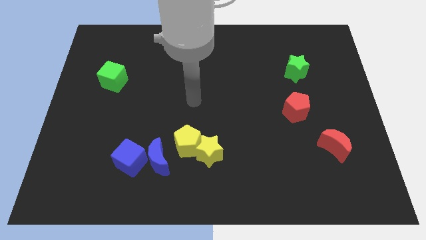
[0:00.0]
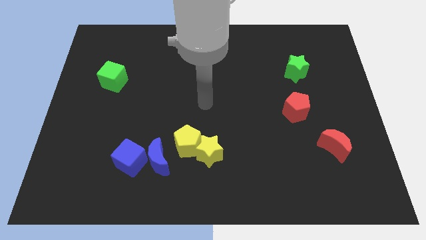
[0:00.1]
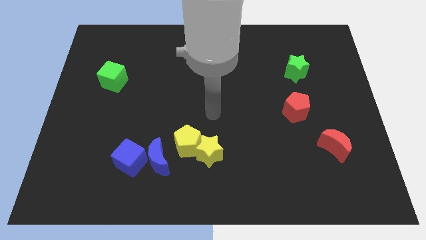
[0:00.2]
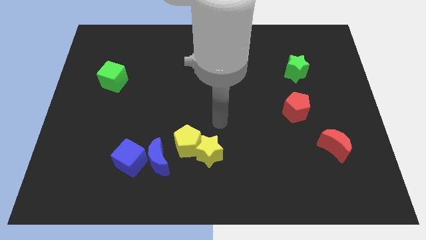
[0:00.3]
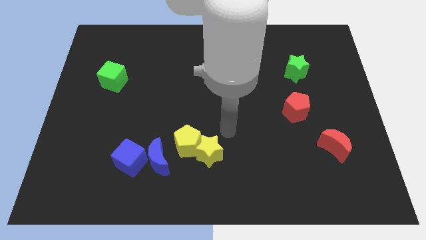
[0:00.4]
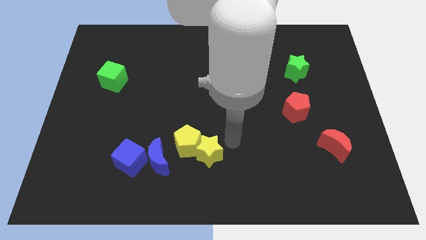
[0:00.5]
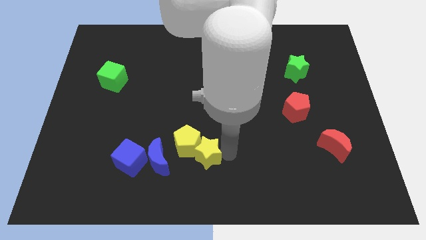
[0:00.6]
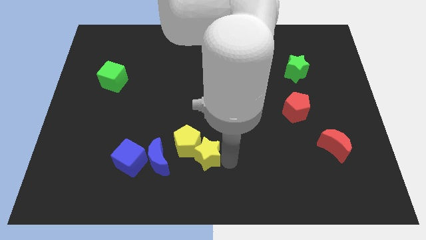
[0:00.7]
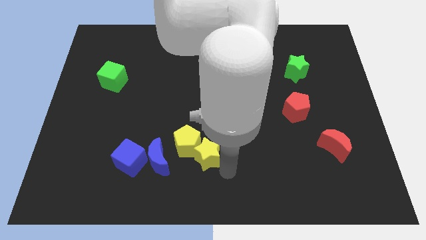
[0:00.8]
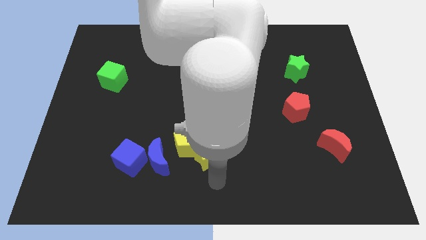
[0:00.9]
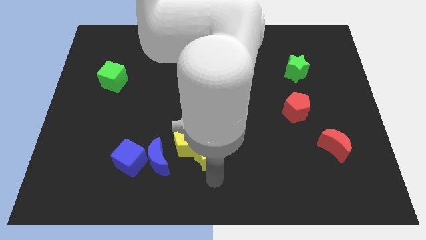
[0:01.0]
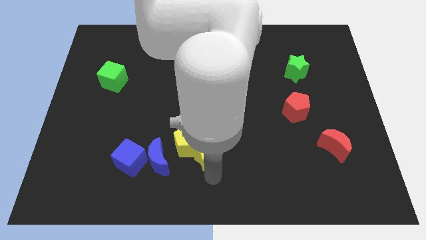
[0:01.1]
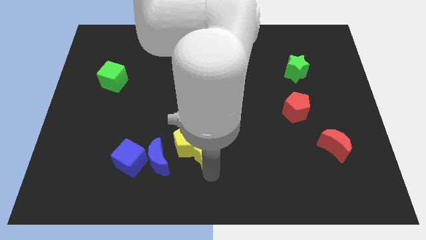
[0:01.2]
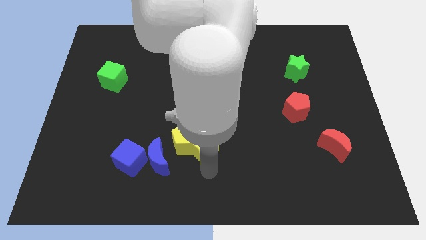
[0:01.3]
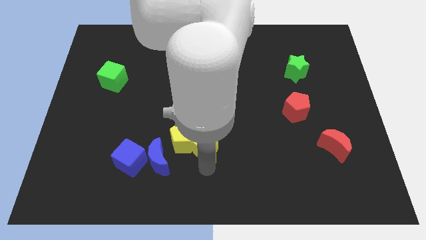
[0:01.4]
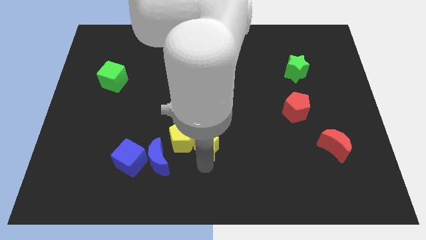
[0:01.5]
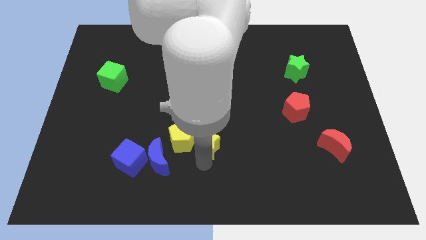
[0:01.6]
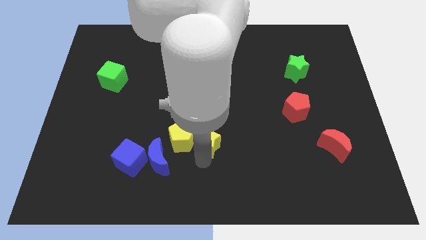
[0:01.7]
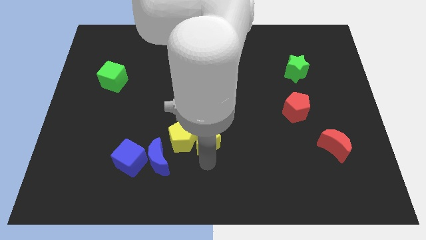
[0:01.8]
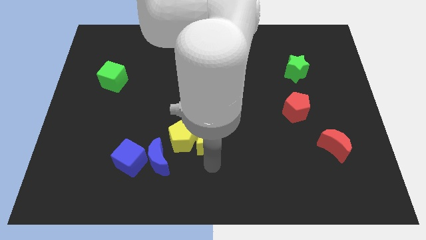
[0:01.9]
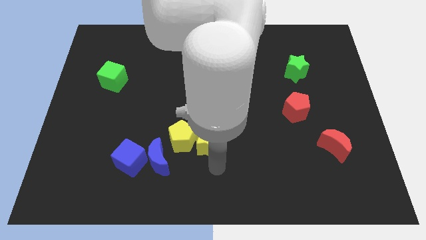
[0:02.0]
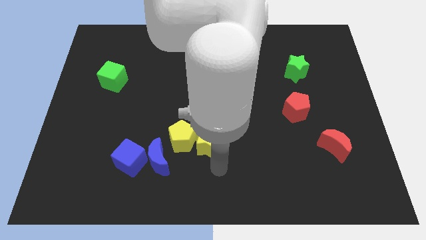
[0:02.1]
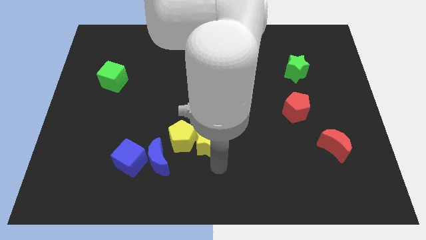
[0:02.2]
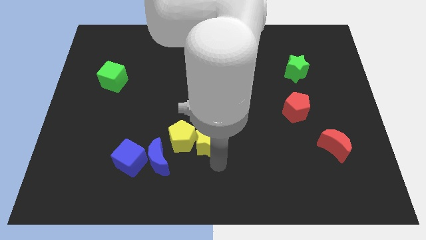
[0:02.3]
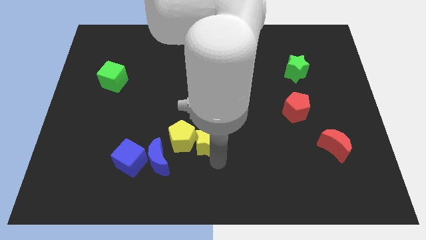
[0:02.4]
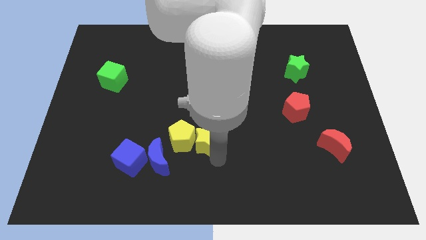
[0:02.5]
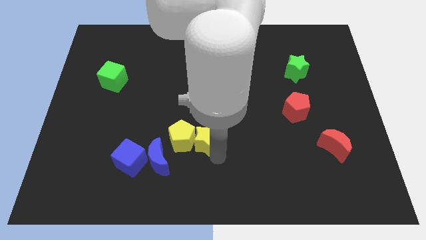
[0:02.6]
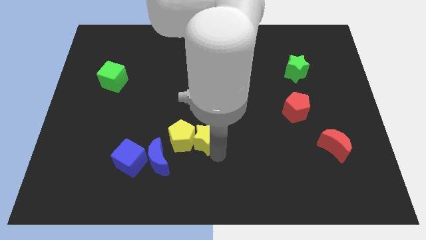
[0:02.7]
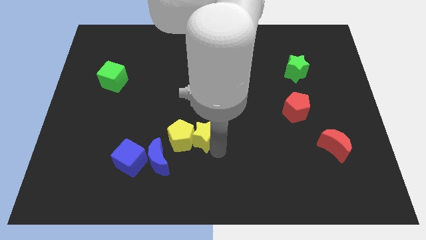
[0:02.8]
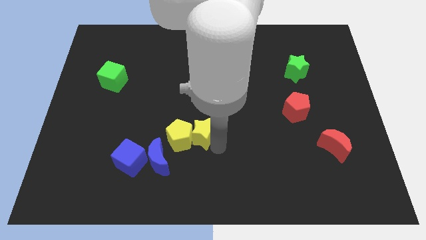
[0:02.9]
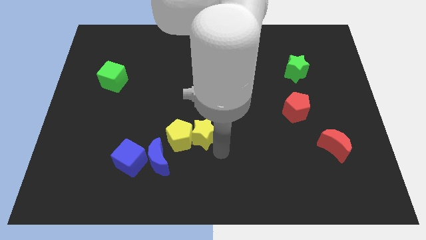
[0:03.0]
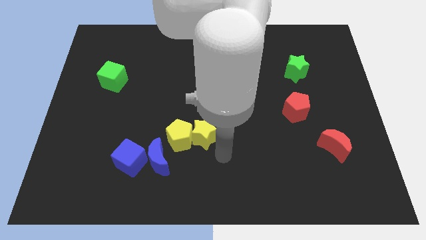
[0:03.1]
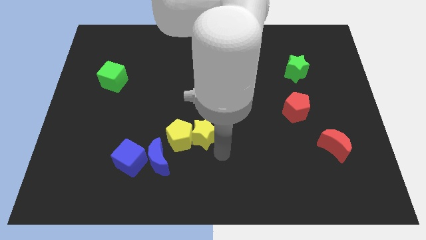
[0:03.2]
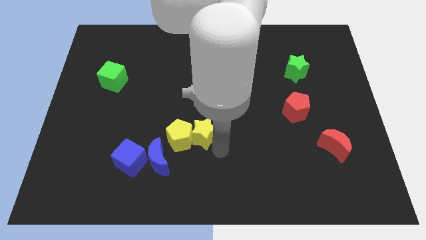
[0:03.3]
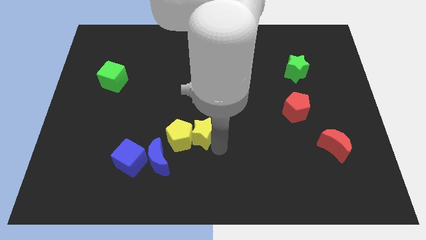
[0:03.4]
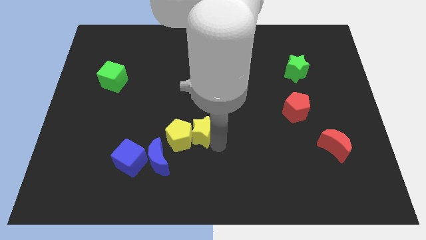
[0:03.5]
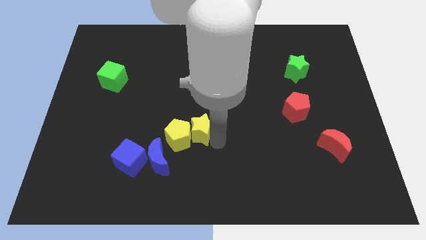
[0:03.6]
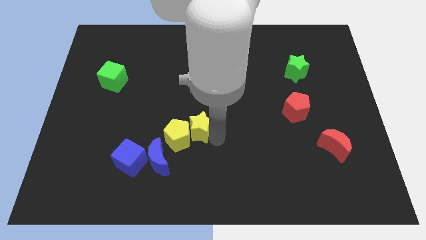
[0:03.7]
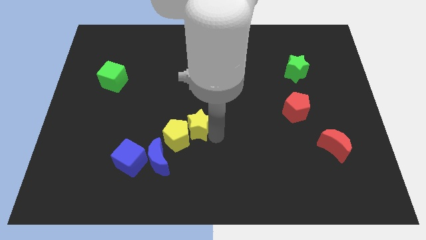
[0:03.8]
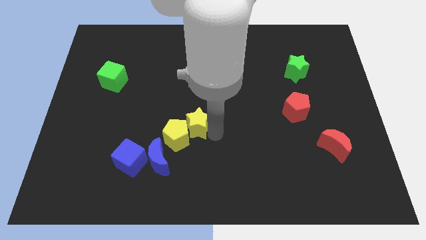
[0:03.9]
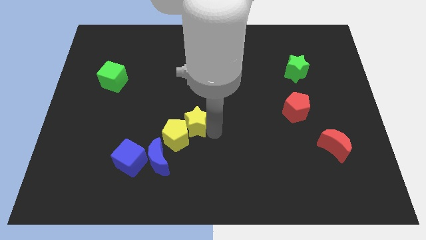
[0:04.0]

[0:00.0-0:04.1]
slightly slide the yellow star upwards and then to the left

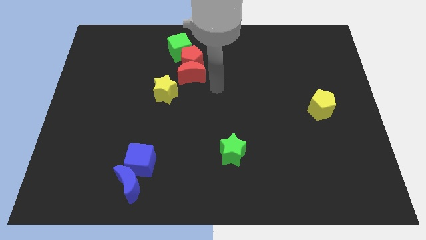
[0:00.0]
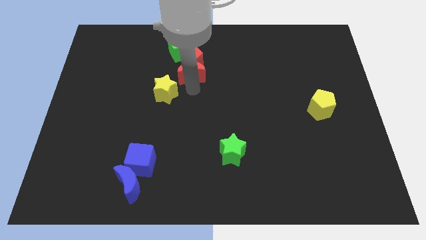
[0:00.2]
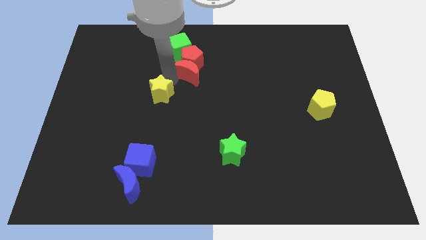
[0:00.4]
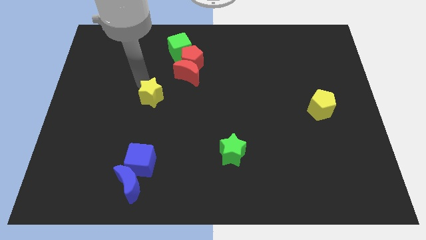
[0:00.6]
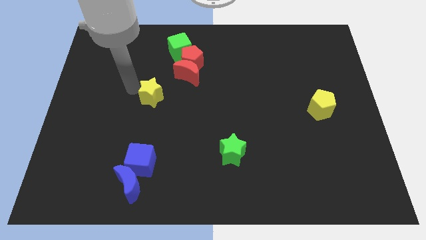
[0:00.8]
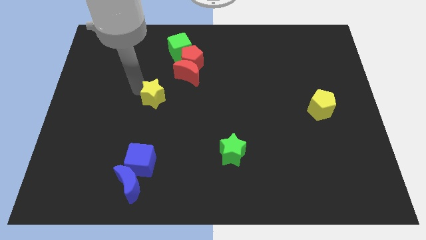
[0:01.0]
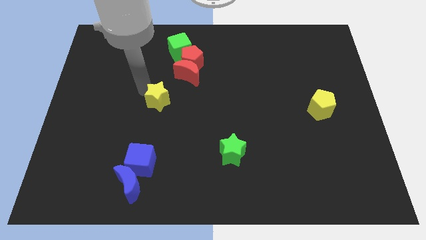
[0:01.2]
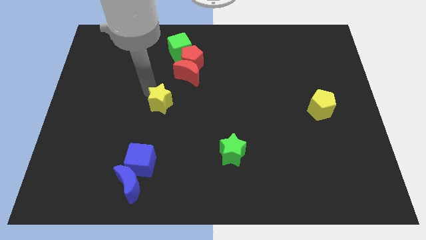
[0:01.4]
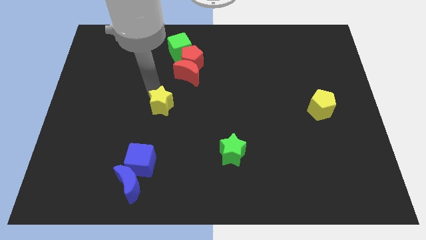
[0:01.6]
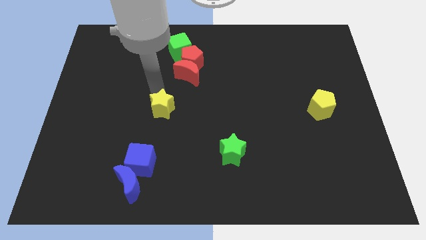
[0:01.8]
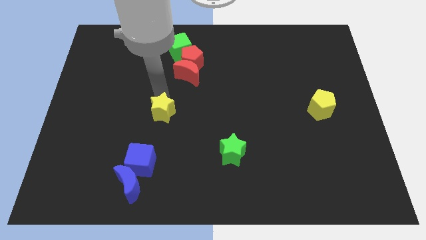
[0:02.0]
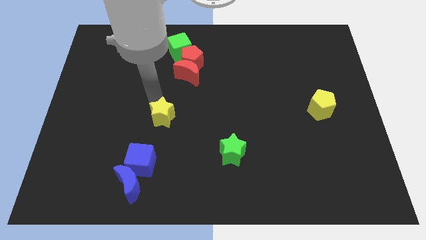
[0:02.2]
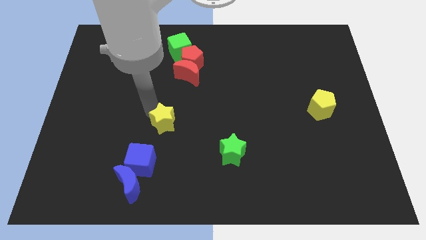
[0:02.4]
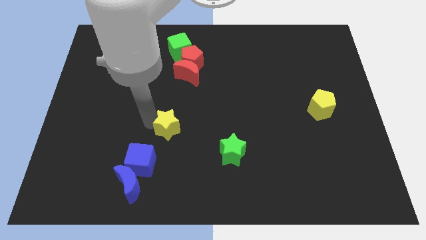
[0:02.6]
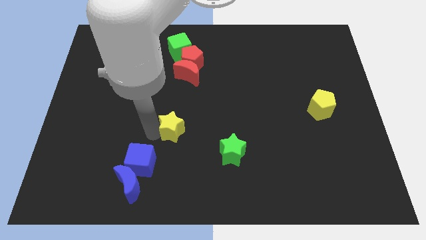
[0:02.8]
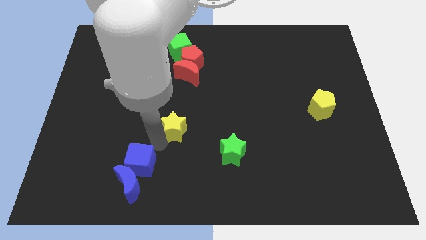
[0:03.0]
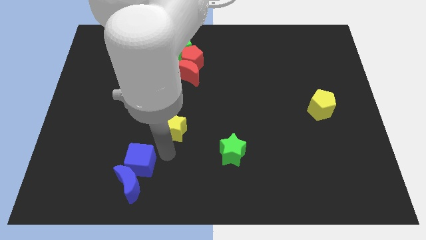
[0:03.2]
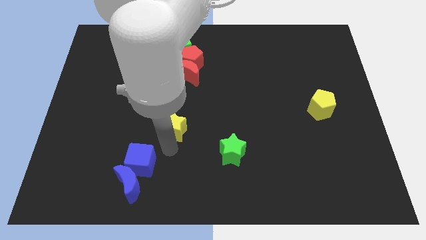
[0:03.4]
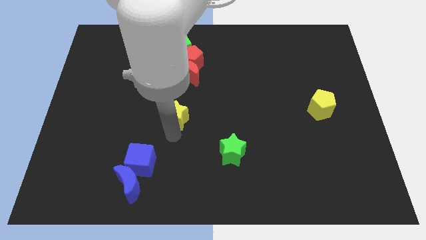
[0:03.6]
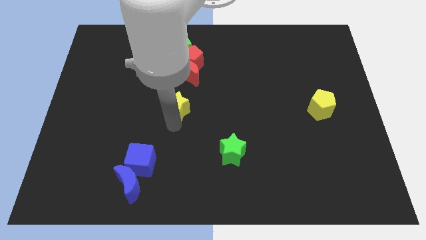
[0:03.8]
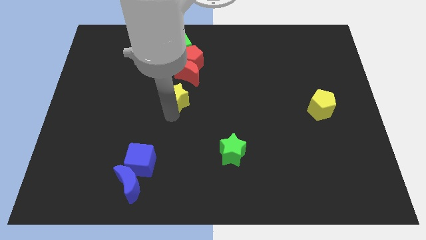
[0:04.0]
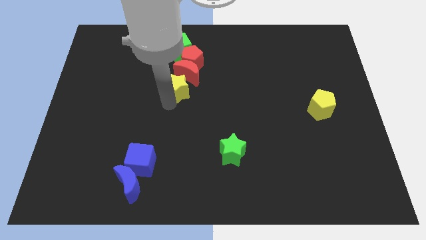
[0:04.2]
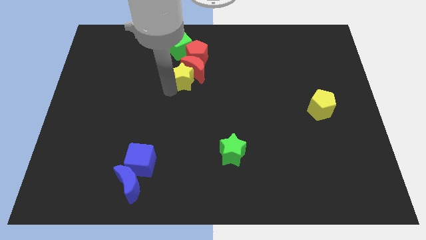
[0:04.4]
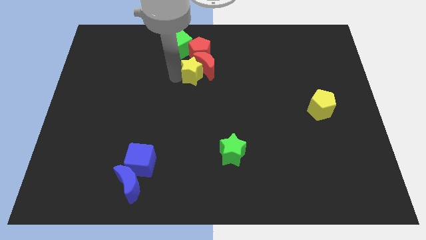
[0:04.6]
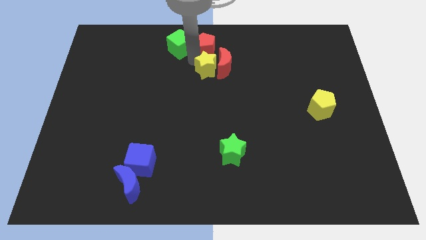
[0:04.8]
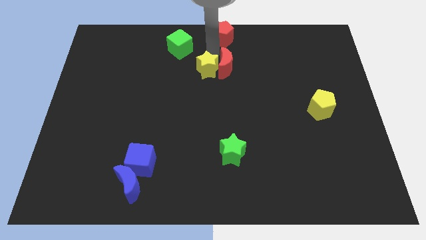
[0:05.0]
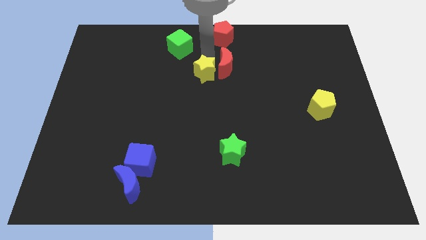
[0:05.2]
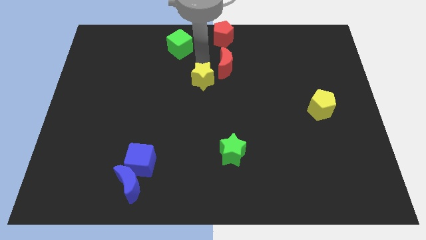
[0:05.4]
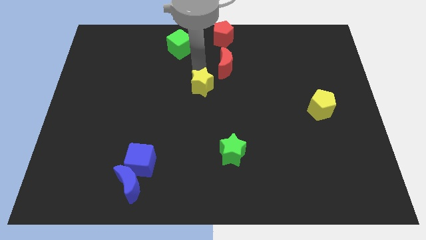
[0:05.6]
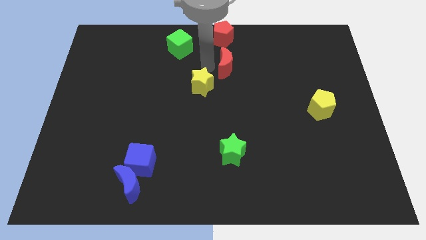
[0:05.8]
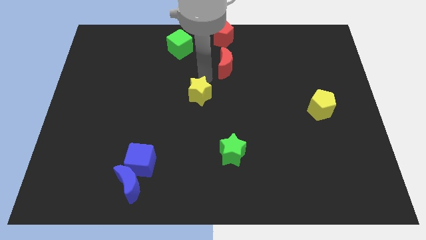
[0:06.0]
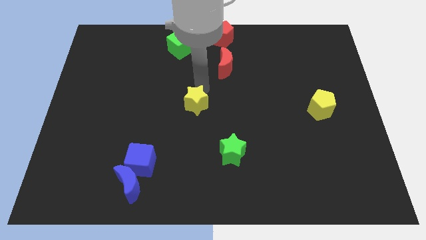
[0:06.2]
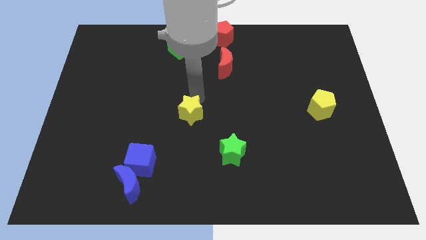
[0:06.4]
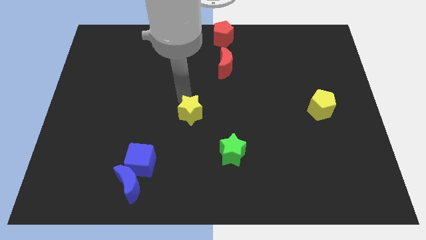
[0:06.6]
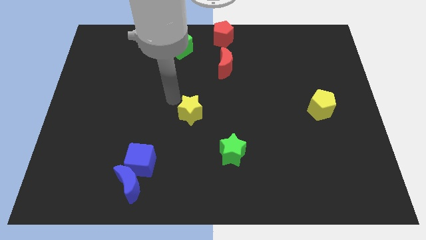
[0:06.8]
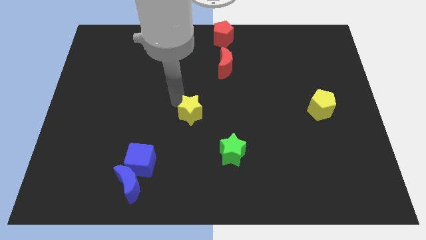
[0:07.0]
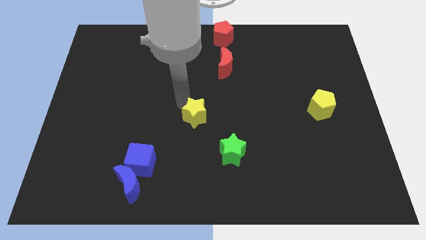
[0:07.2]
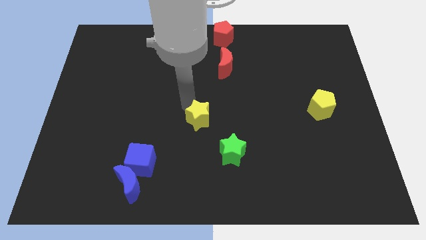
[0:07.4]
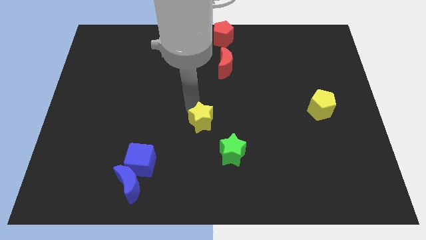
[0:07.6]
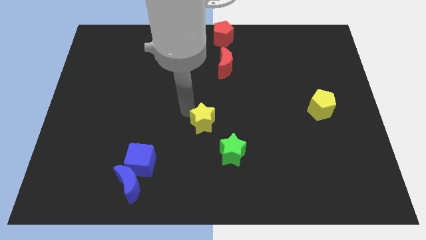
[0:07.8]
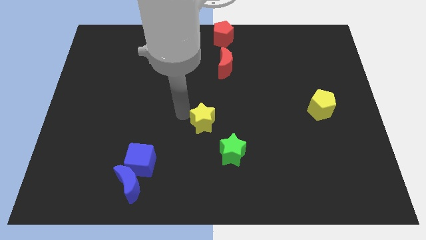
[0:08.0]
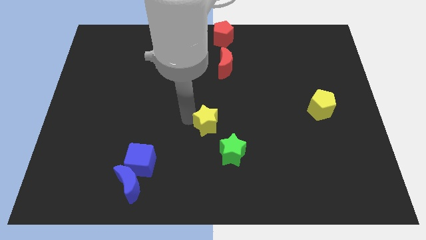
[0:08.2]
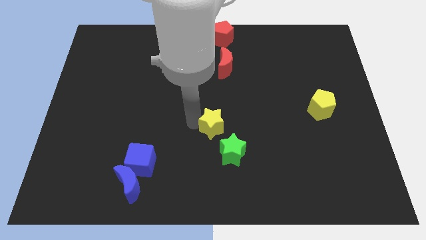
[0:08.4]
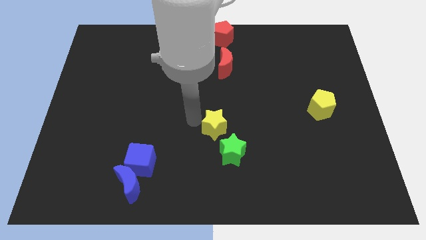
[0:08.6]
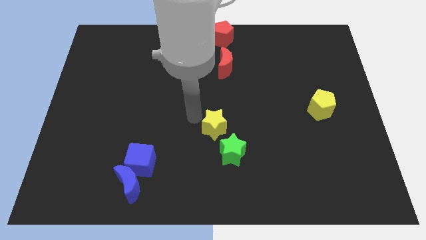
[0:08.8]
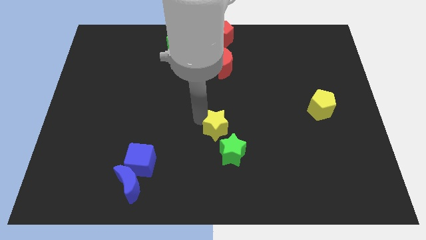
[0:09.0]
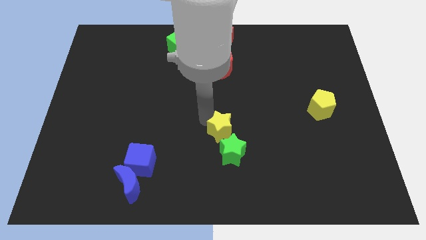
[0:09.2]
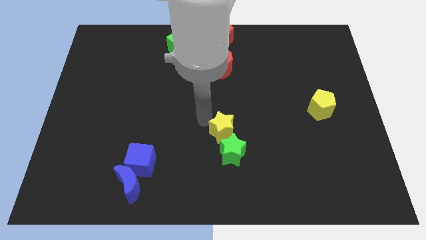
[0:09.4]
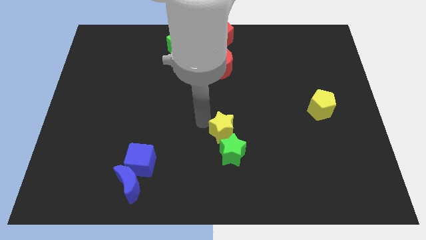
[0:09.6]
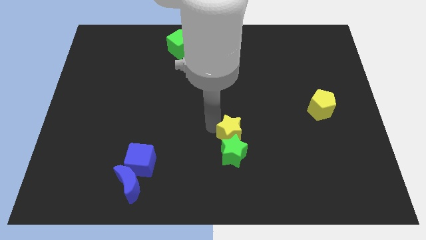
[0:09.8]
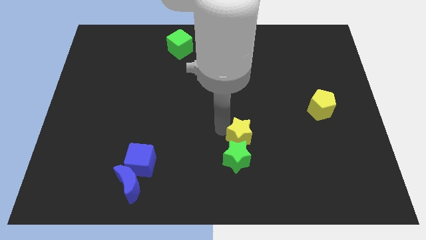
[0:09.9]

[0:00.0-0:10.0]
push the yellow star down and to the right diagonally
